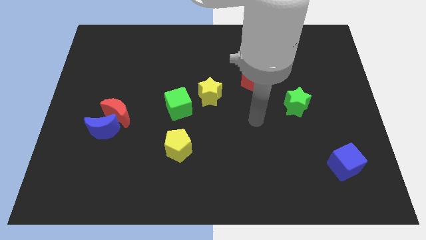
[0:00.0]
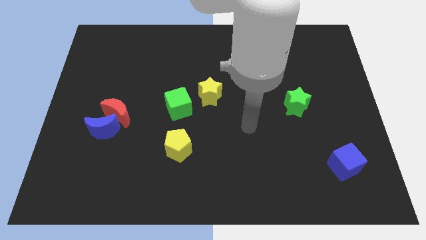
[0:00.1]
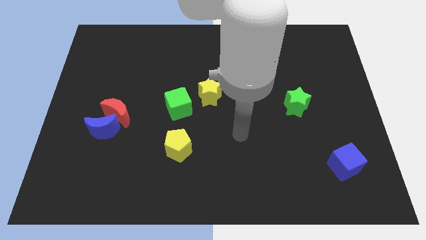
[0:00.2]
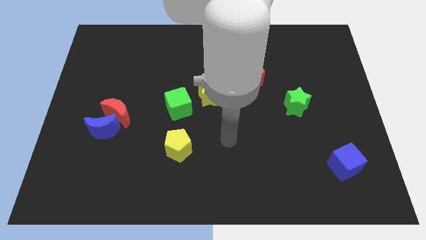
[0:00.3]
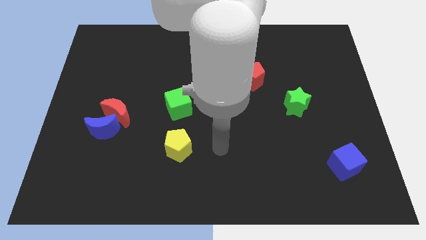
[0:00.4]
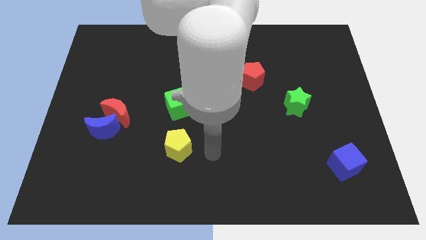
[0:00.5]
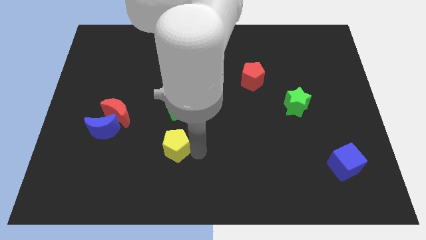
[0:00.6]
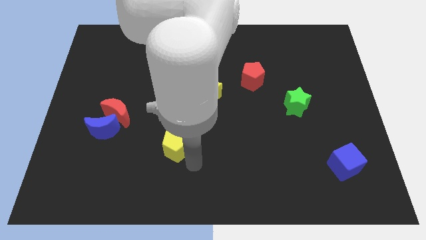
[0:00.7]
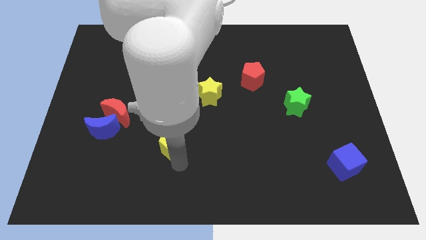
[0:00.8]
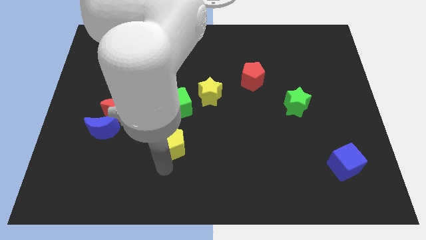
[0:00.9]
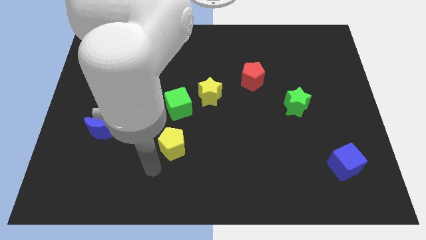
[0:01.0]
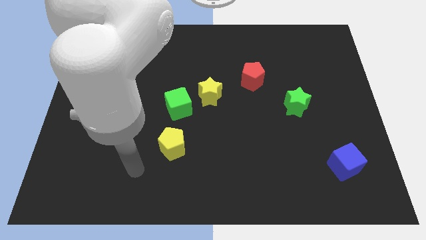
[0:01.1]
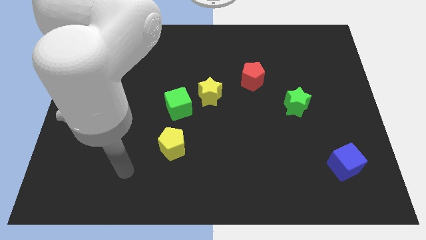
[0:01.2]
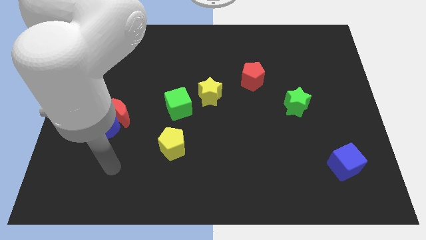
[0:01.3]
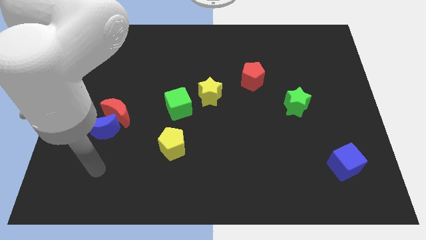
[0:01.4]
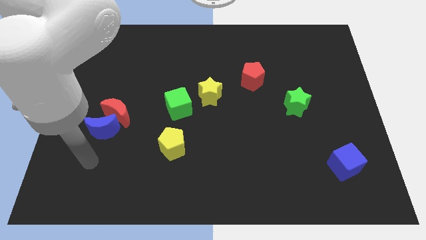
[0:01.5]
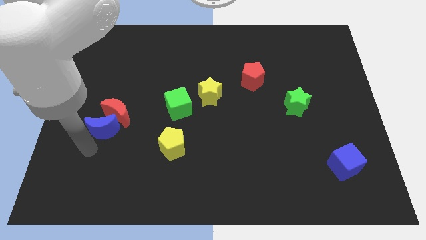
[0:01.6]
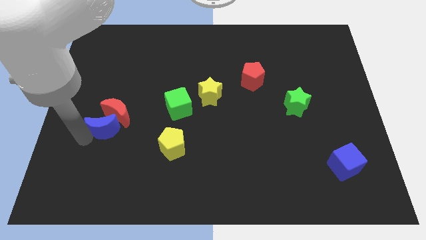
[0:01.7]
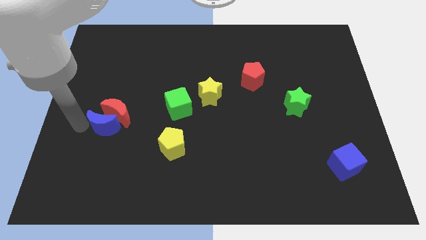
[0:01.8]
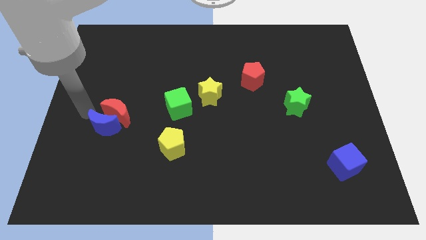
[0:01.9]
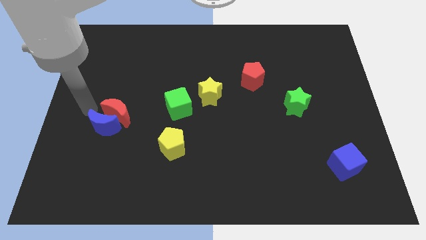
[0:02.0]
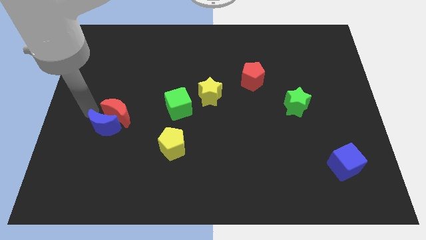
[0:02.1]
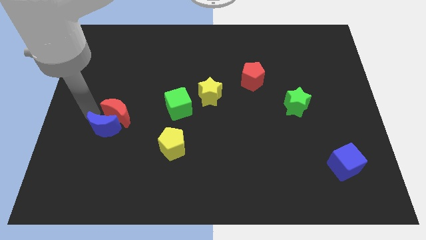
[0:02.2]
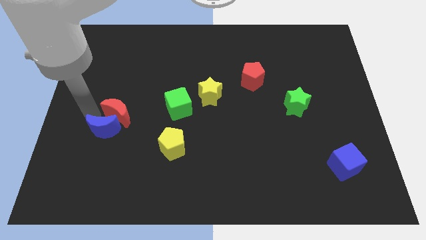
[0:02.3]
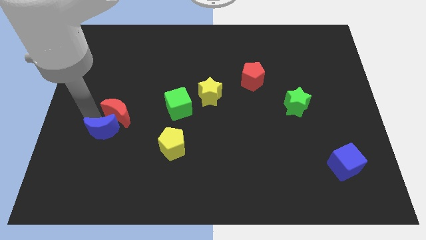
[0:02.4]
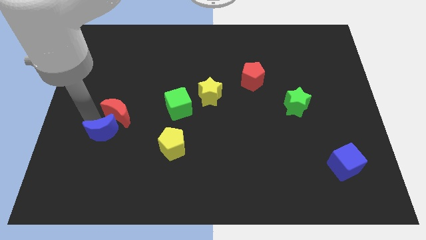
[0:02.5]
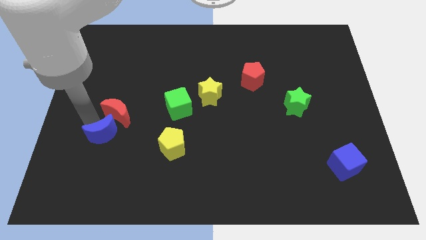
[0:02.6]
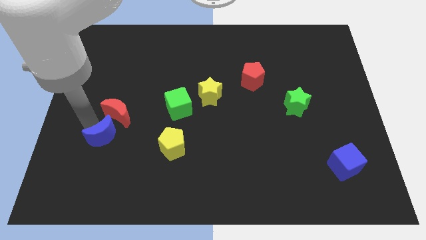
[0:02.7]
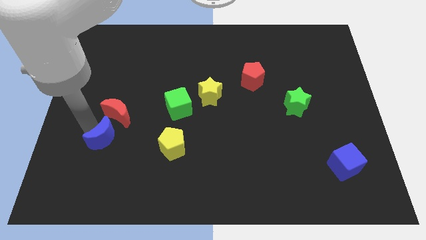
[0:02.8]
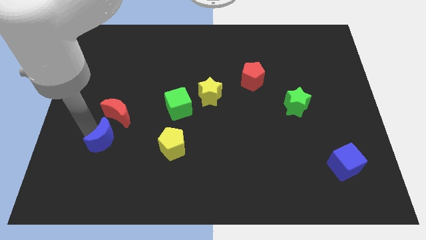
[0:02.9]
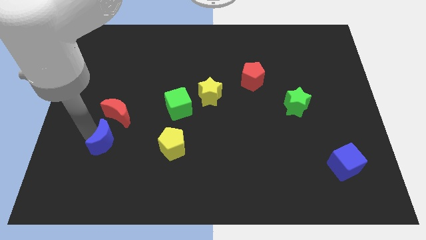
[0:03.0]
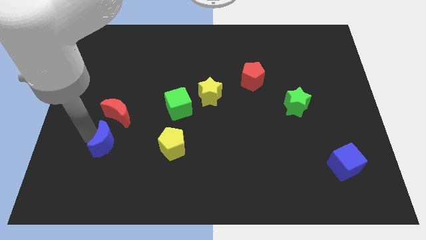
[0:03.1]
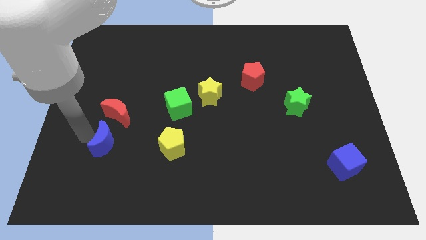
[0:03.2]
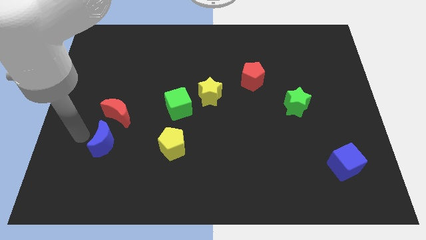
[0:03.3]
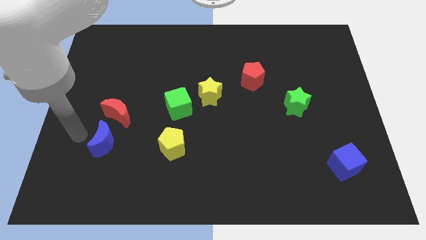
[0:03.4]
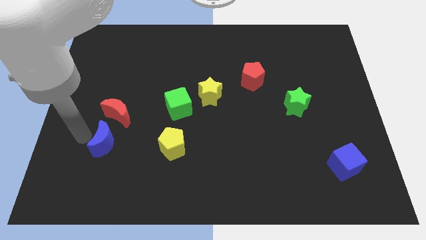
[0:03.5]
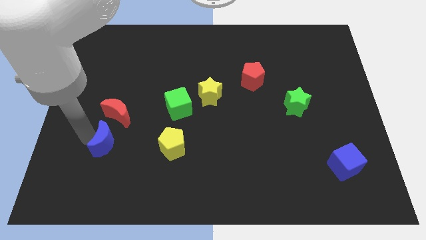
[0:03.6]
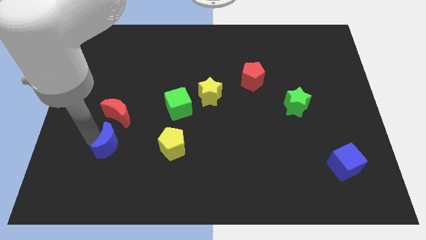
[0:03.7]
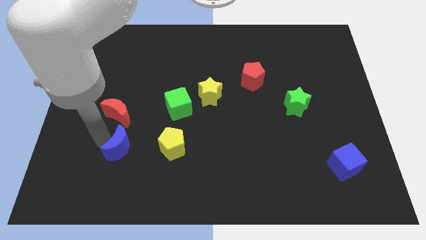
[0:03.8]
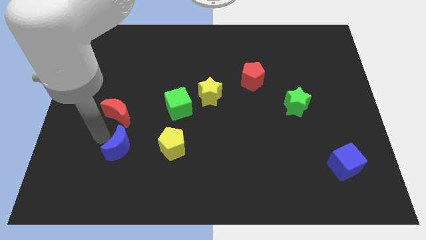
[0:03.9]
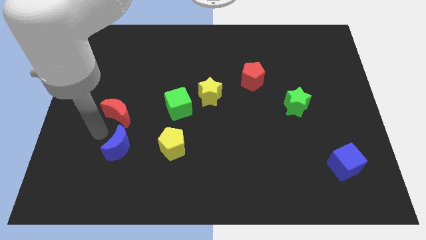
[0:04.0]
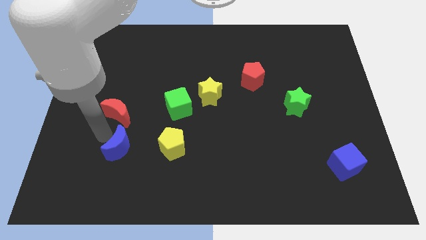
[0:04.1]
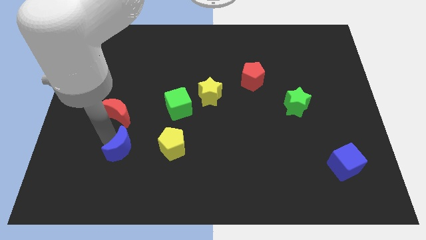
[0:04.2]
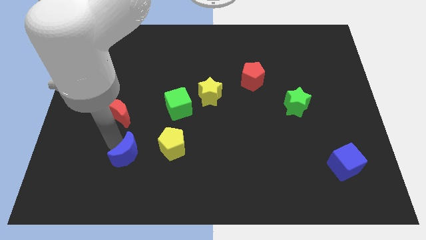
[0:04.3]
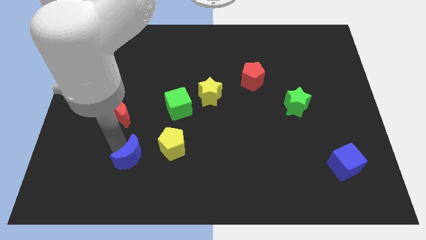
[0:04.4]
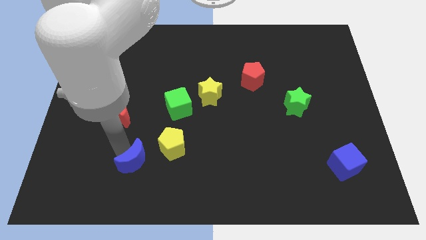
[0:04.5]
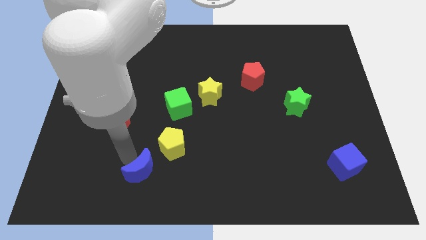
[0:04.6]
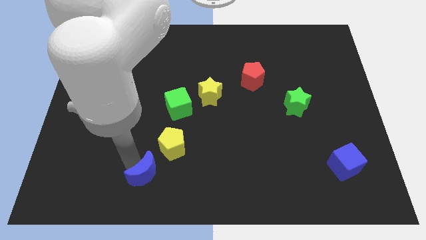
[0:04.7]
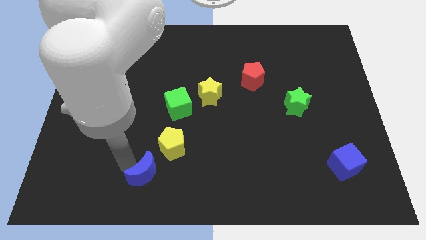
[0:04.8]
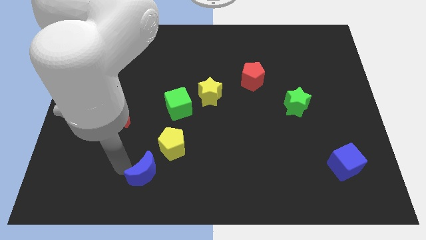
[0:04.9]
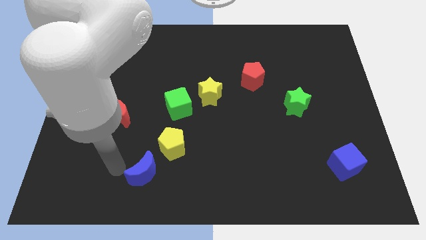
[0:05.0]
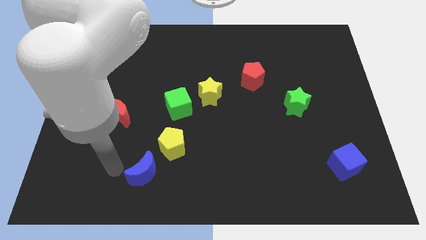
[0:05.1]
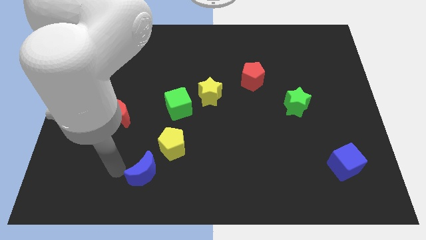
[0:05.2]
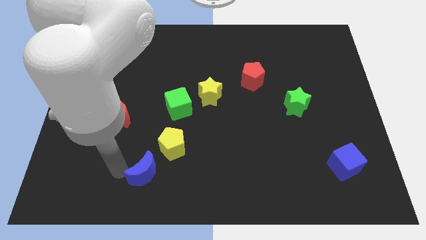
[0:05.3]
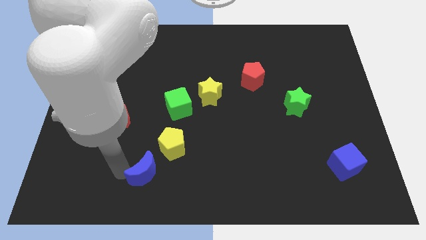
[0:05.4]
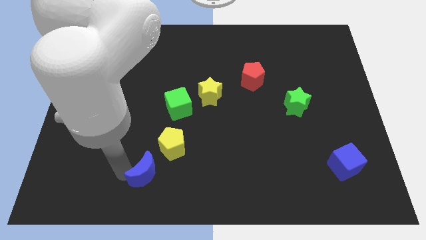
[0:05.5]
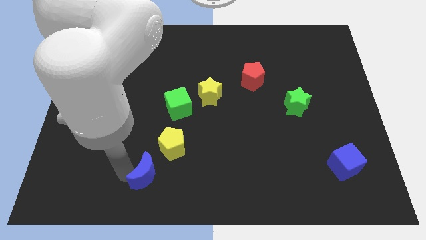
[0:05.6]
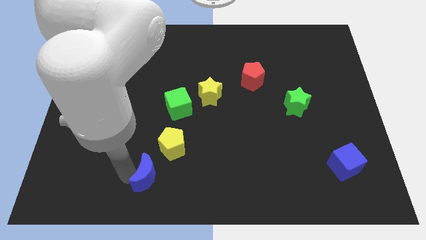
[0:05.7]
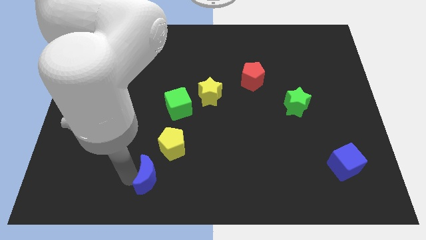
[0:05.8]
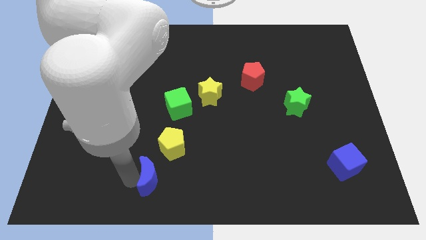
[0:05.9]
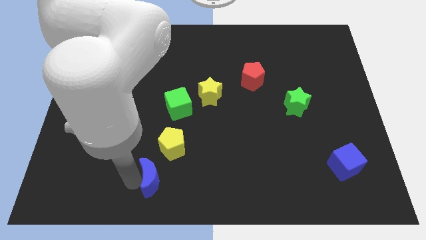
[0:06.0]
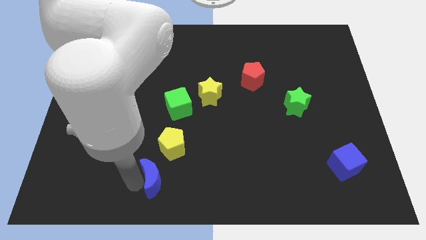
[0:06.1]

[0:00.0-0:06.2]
push the blue moon to the bottom

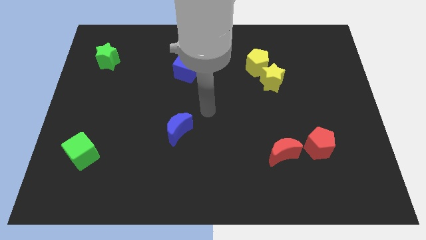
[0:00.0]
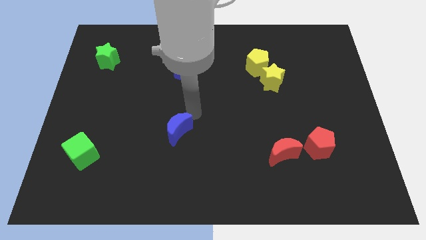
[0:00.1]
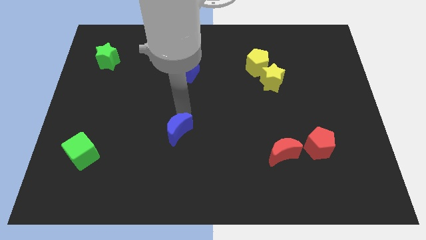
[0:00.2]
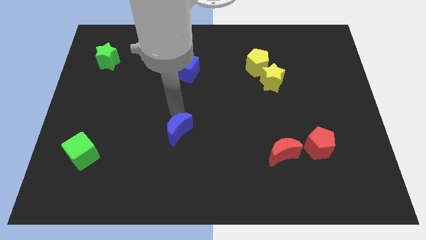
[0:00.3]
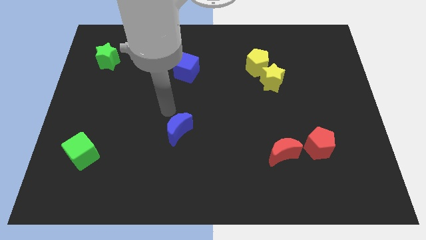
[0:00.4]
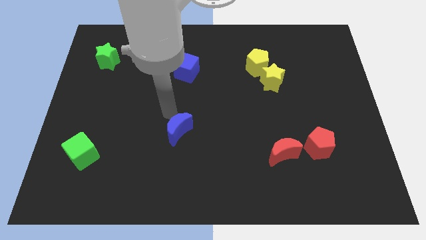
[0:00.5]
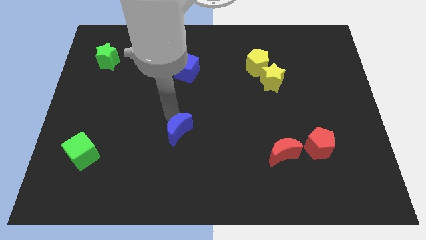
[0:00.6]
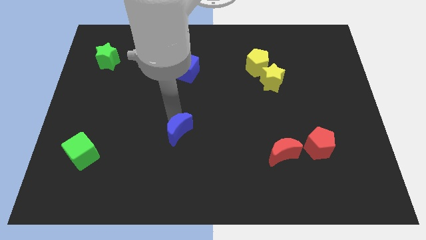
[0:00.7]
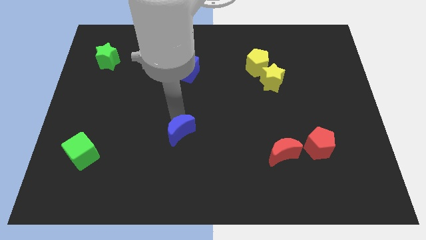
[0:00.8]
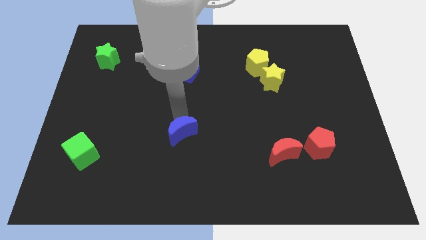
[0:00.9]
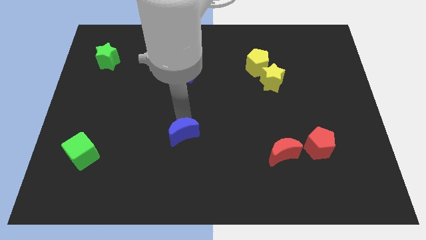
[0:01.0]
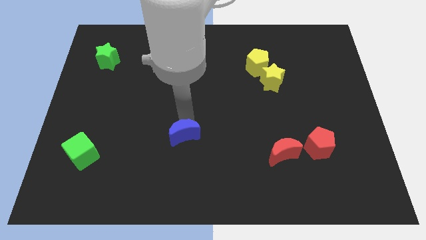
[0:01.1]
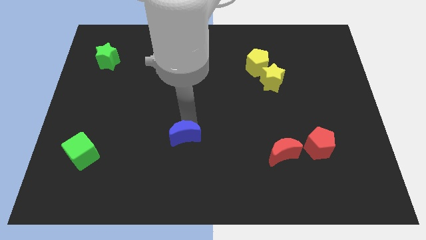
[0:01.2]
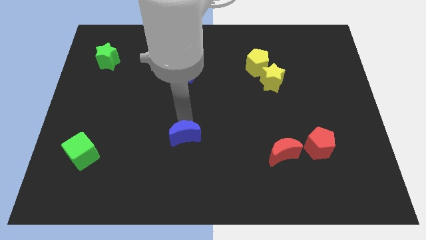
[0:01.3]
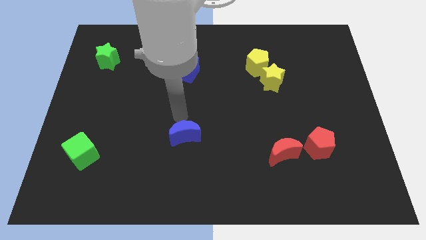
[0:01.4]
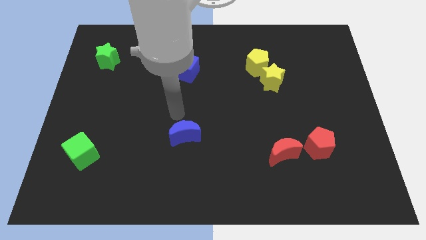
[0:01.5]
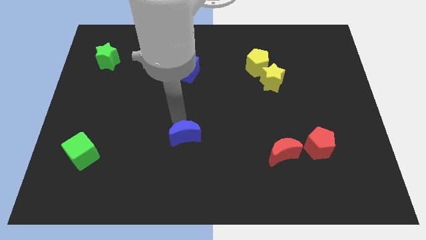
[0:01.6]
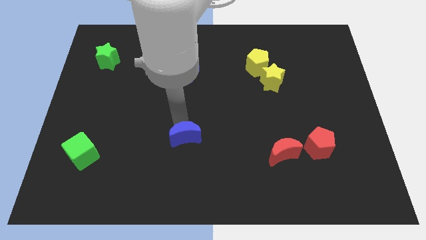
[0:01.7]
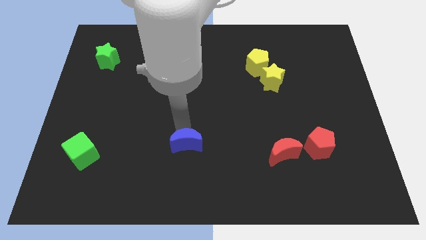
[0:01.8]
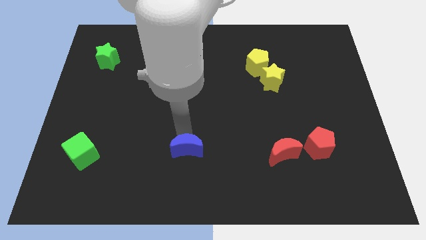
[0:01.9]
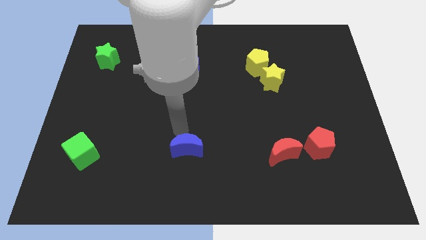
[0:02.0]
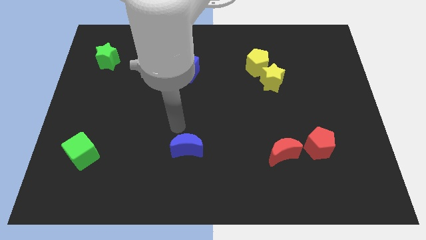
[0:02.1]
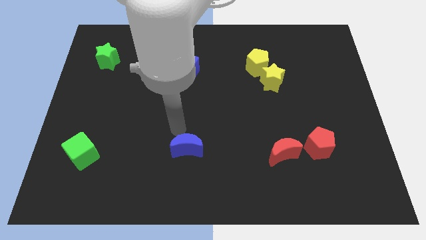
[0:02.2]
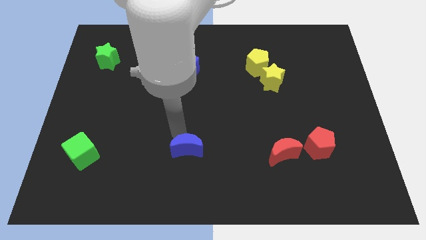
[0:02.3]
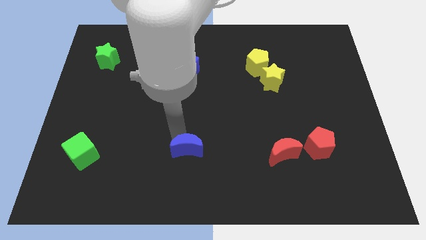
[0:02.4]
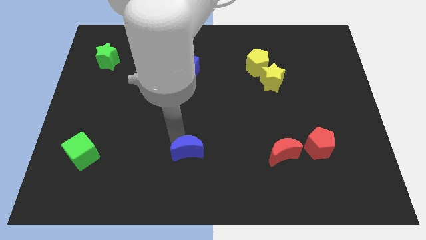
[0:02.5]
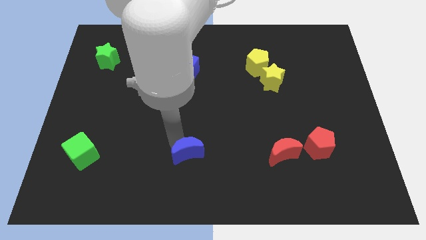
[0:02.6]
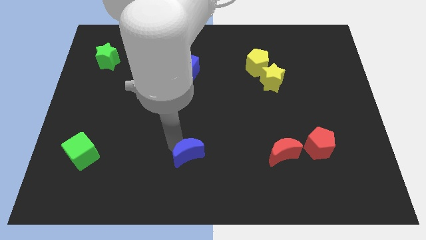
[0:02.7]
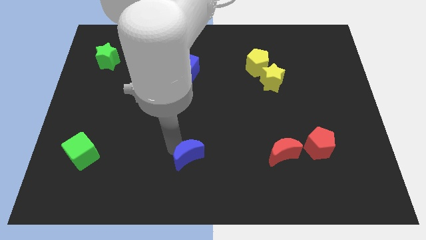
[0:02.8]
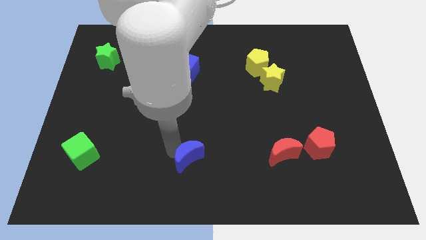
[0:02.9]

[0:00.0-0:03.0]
put the blue moon to the bottom
